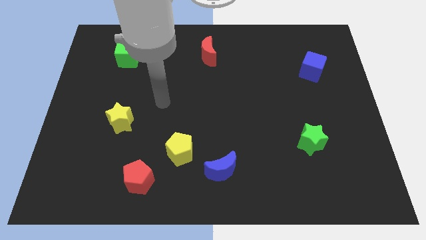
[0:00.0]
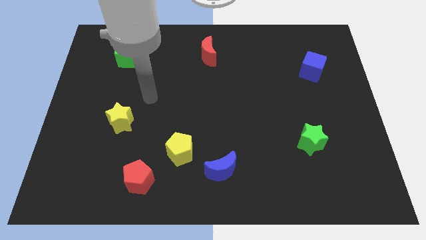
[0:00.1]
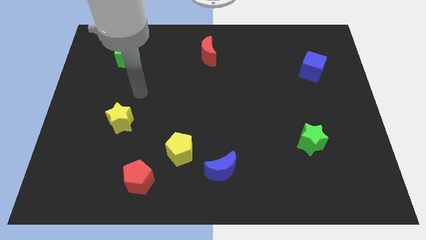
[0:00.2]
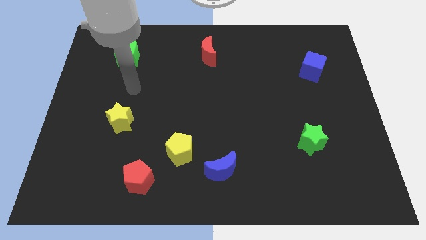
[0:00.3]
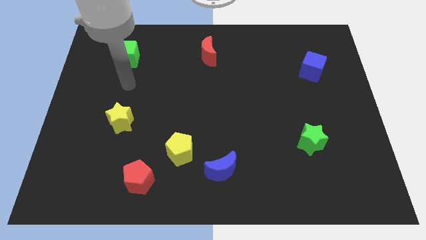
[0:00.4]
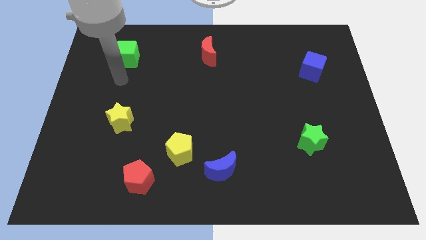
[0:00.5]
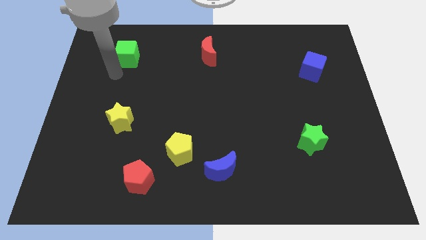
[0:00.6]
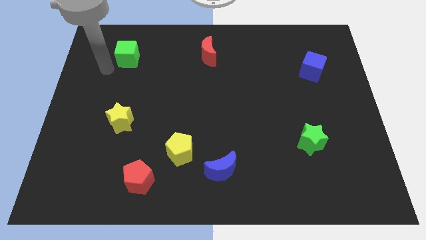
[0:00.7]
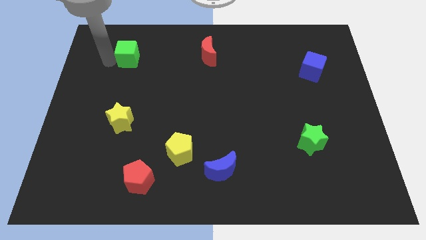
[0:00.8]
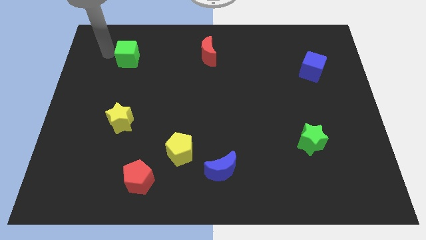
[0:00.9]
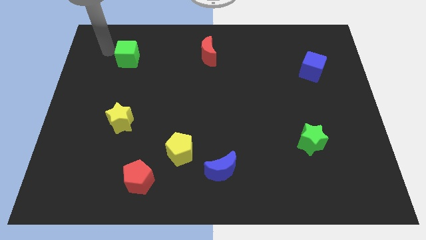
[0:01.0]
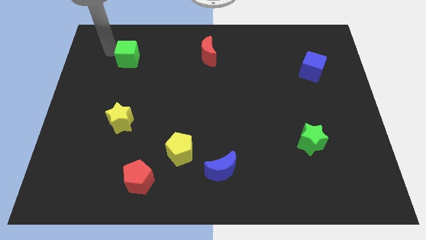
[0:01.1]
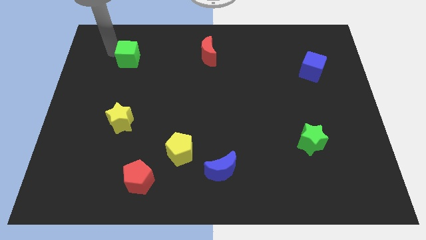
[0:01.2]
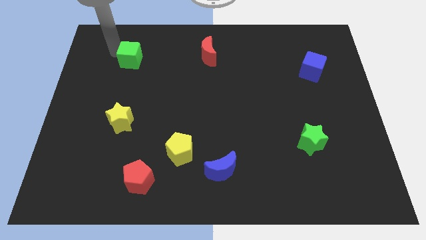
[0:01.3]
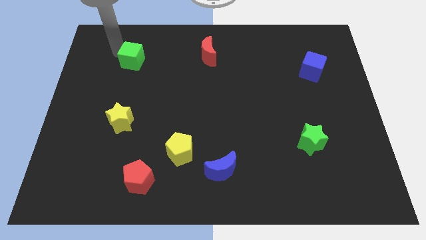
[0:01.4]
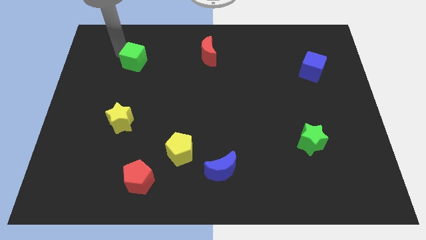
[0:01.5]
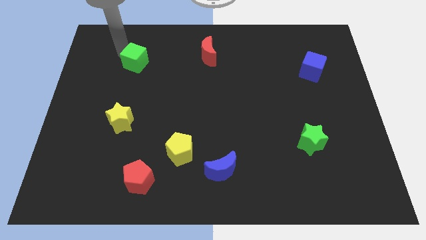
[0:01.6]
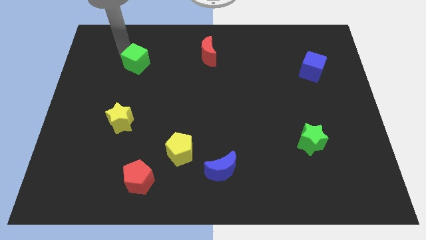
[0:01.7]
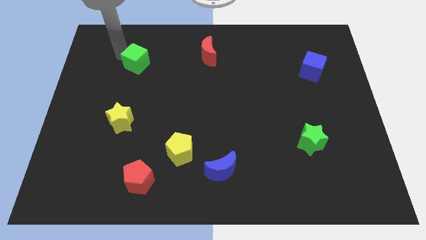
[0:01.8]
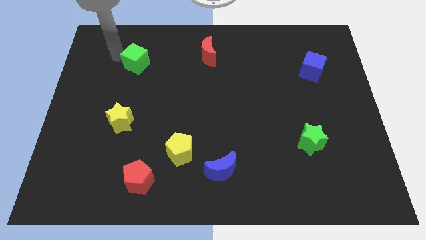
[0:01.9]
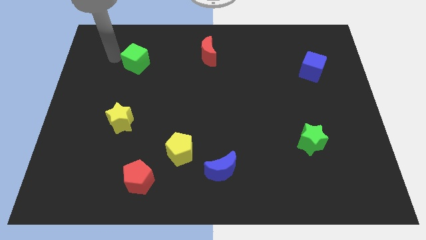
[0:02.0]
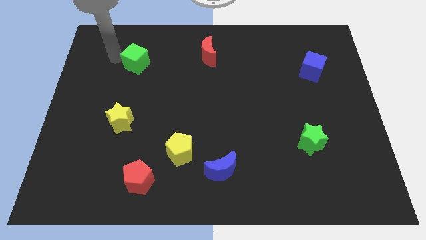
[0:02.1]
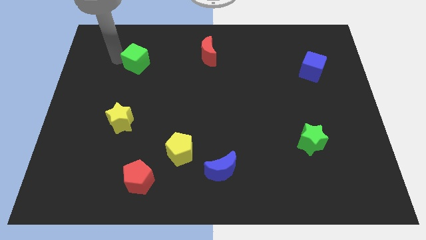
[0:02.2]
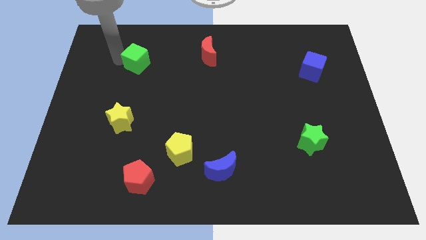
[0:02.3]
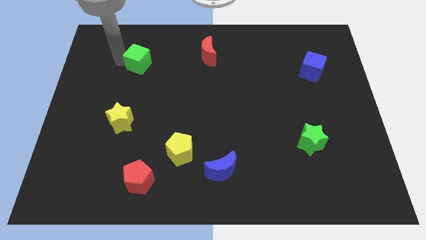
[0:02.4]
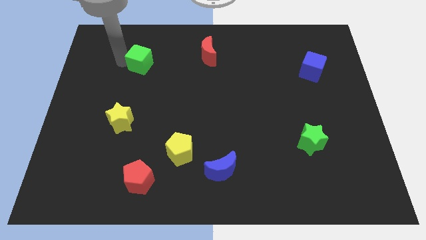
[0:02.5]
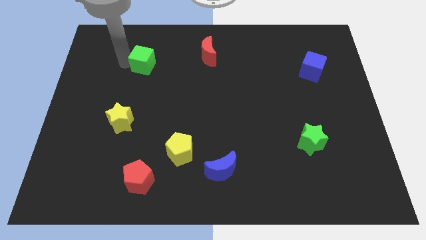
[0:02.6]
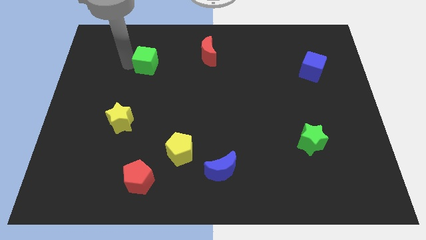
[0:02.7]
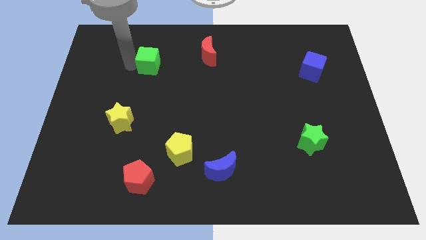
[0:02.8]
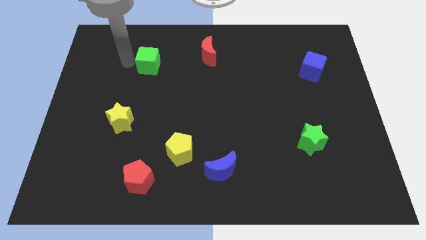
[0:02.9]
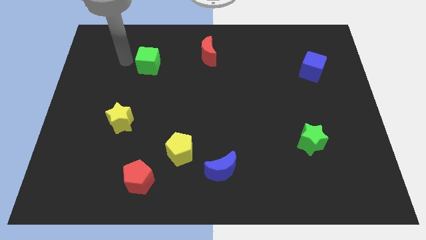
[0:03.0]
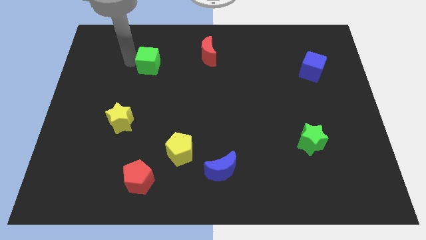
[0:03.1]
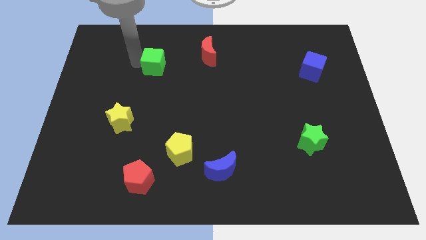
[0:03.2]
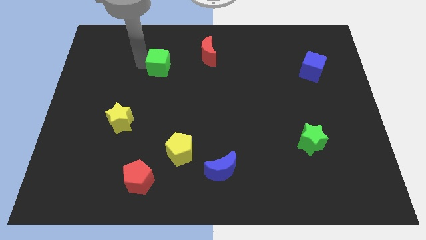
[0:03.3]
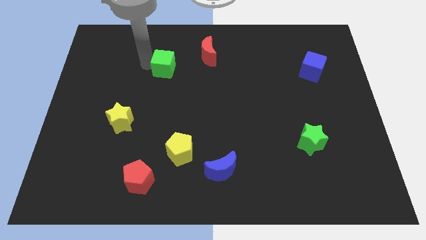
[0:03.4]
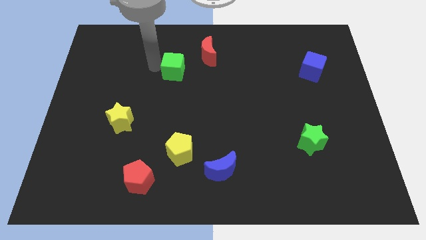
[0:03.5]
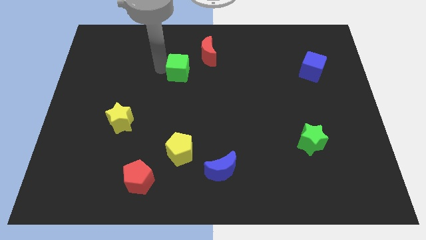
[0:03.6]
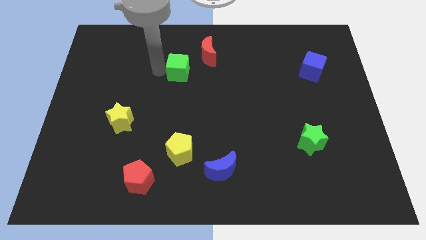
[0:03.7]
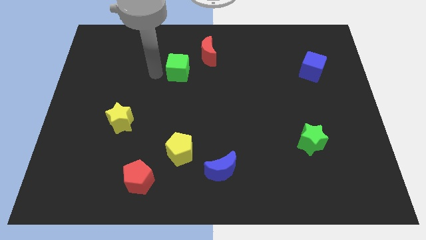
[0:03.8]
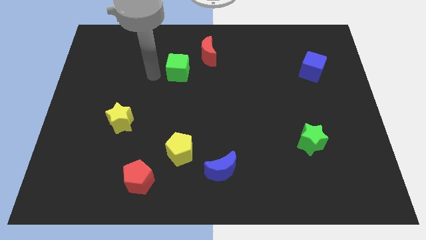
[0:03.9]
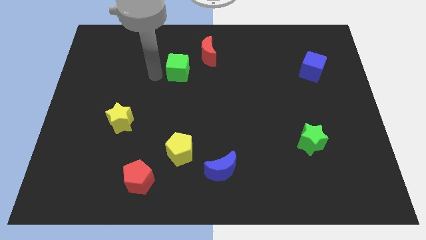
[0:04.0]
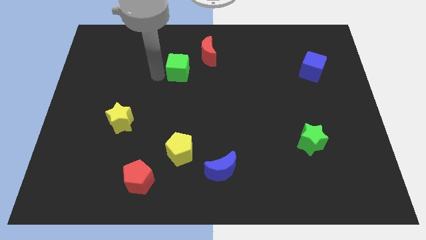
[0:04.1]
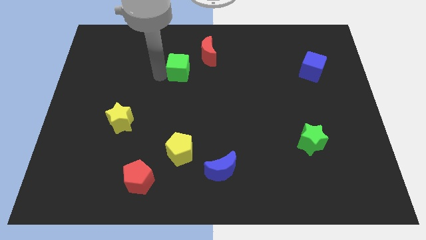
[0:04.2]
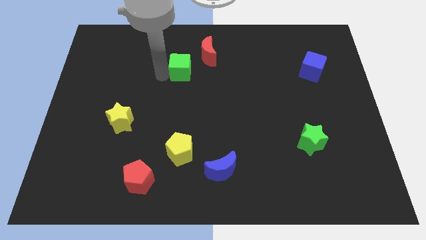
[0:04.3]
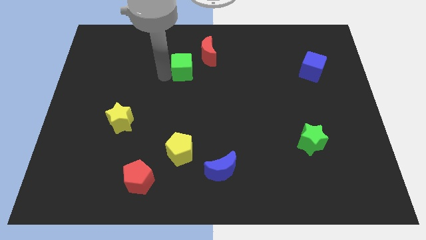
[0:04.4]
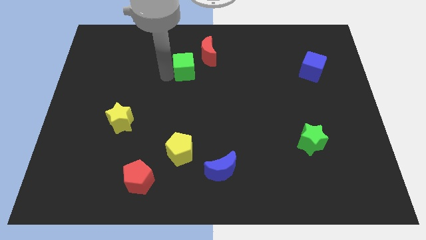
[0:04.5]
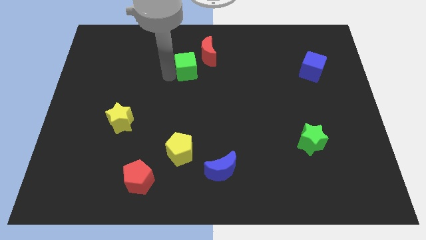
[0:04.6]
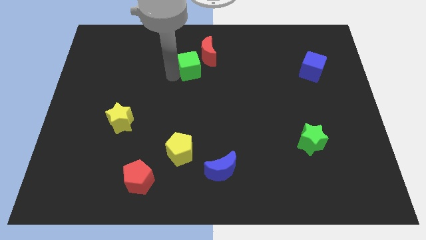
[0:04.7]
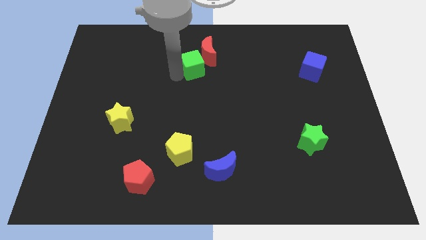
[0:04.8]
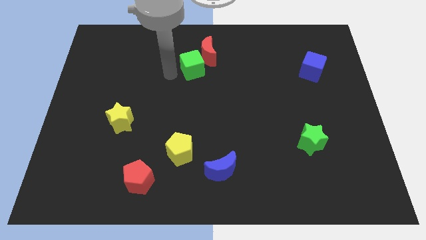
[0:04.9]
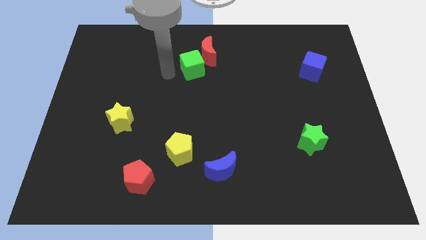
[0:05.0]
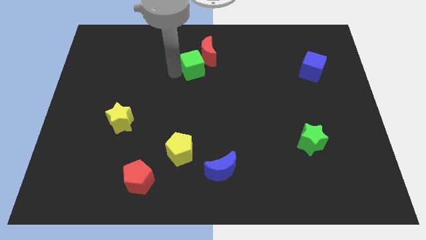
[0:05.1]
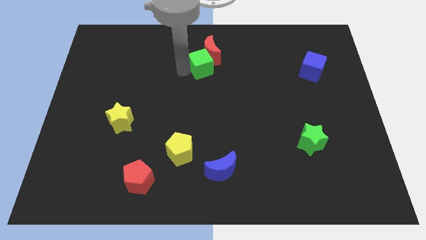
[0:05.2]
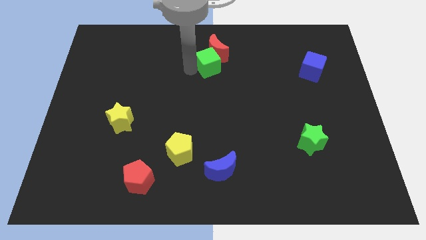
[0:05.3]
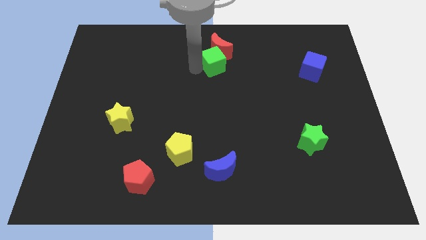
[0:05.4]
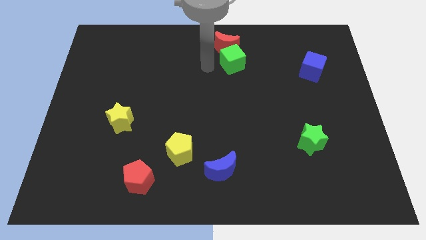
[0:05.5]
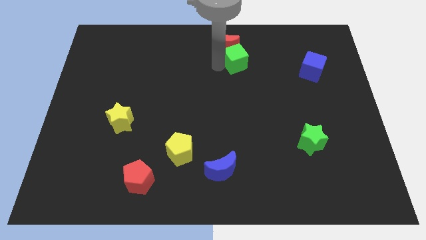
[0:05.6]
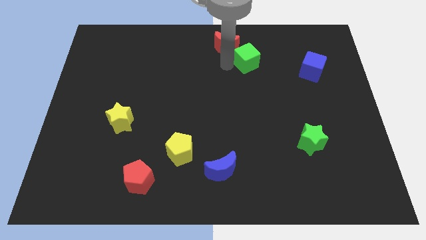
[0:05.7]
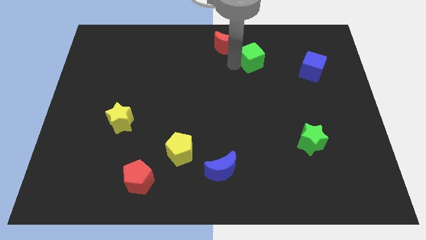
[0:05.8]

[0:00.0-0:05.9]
push the green cube just right of the red moon

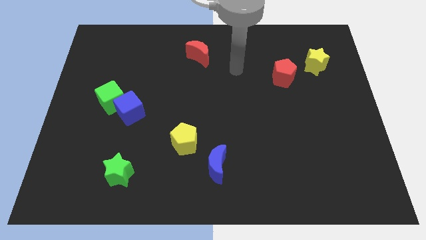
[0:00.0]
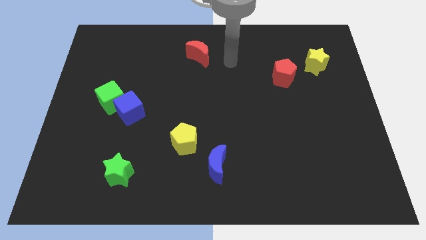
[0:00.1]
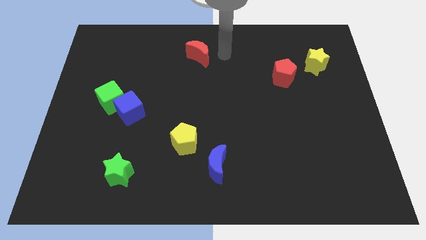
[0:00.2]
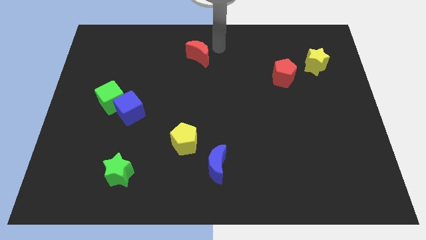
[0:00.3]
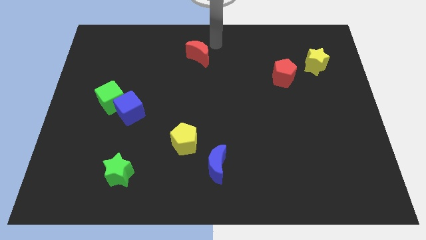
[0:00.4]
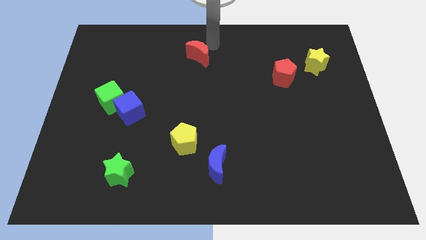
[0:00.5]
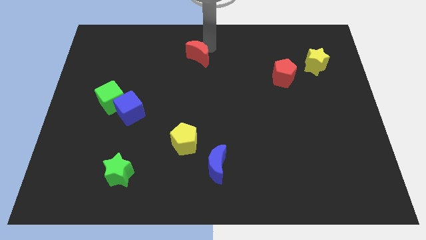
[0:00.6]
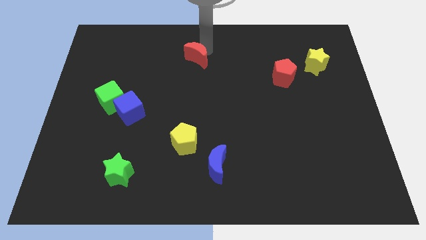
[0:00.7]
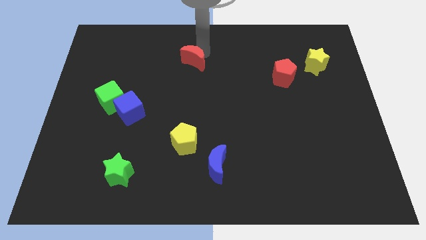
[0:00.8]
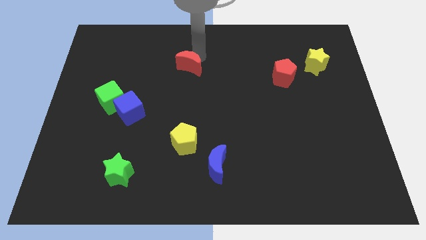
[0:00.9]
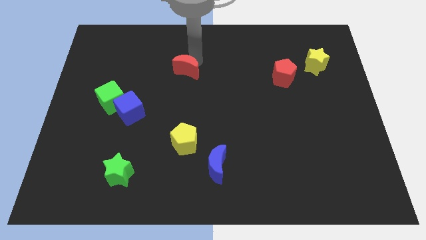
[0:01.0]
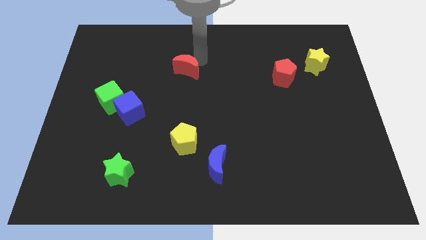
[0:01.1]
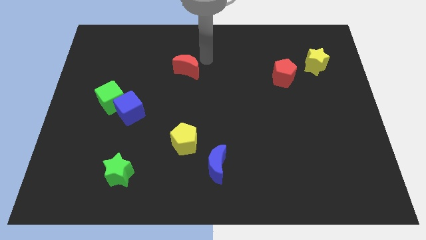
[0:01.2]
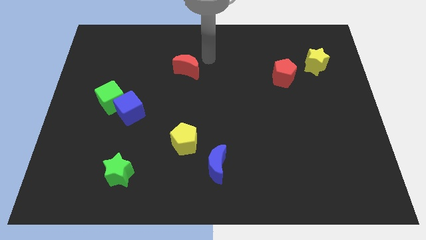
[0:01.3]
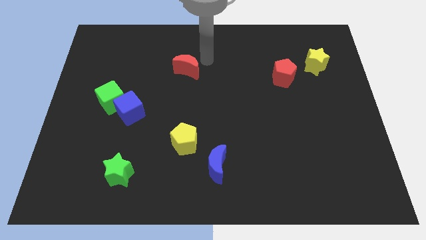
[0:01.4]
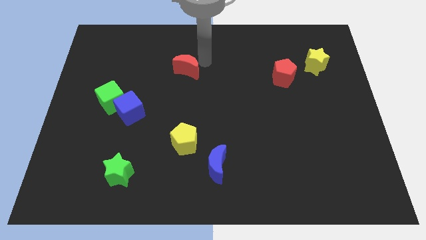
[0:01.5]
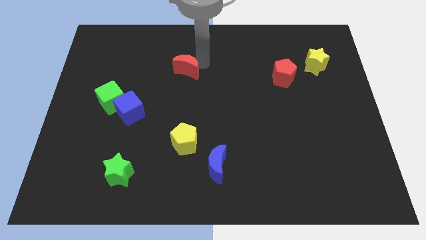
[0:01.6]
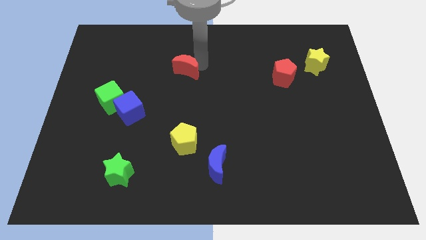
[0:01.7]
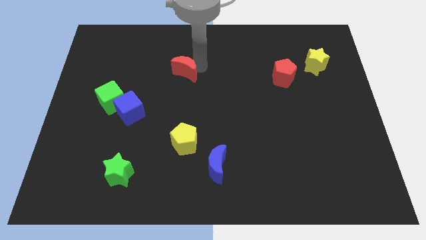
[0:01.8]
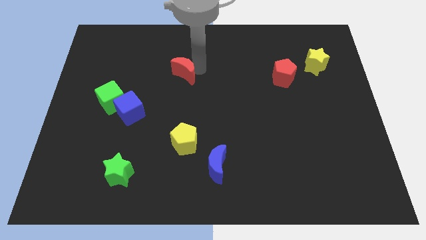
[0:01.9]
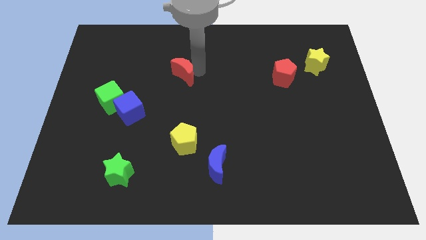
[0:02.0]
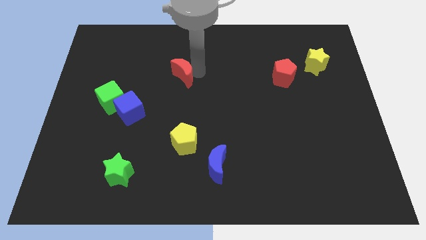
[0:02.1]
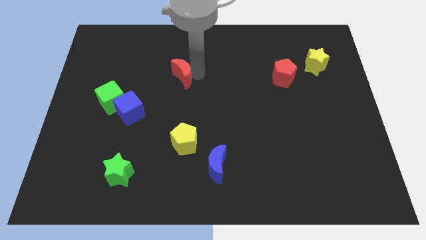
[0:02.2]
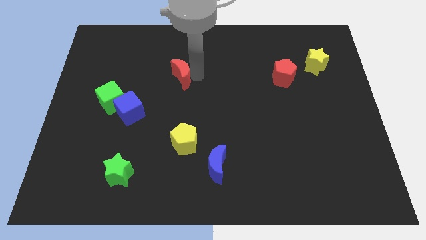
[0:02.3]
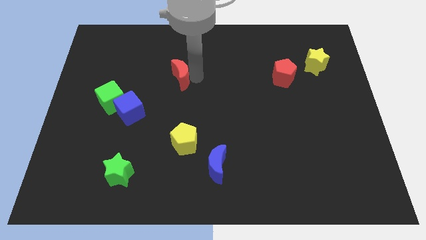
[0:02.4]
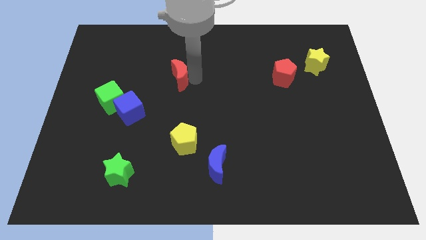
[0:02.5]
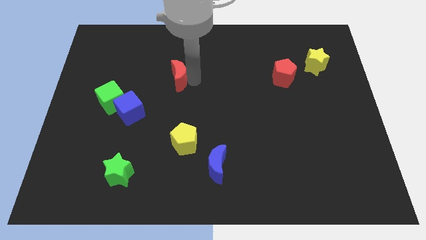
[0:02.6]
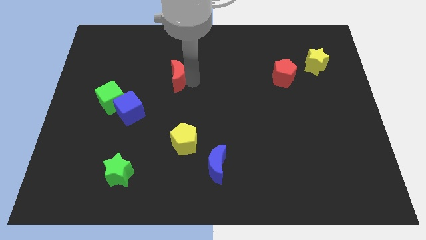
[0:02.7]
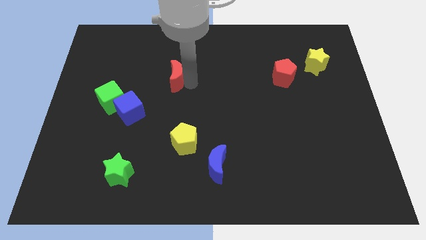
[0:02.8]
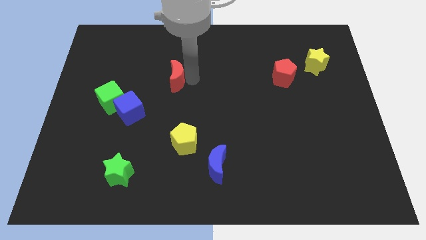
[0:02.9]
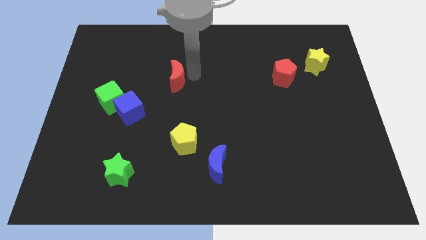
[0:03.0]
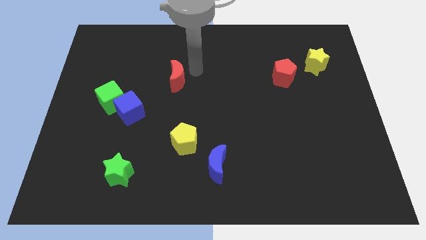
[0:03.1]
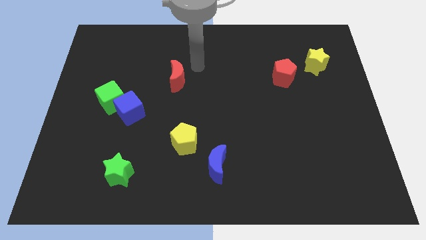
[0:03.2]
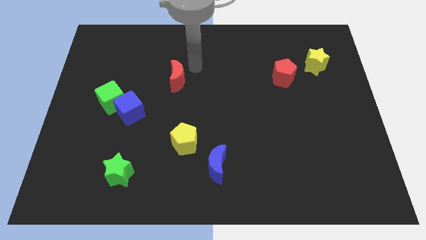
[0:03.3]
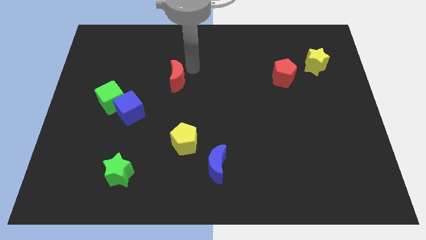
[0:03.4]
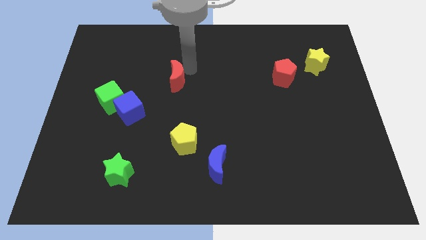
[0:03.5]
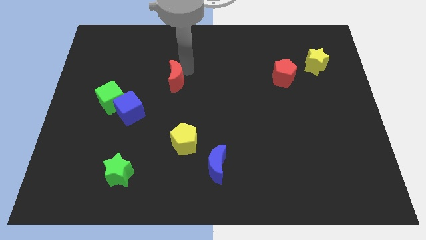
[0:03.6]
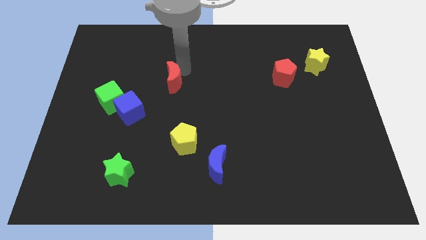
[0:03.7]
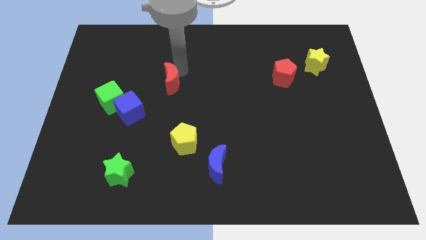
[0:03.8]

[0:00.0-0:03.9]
move the red moon diagonally up and to the right of the blue cube
